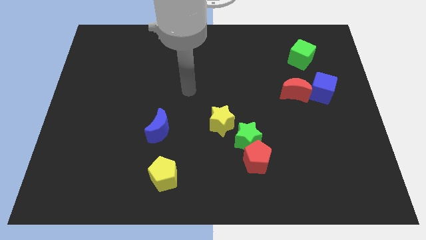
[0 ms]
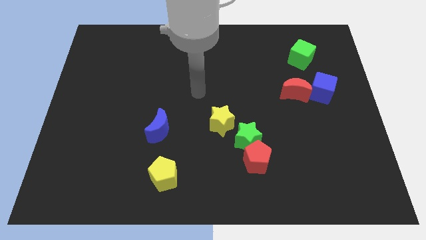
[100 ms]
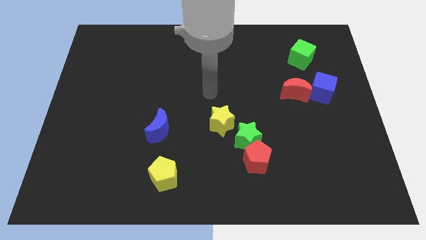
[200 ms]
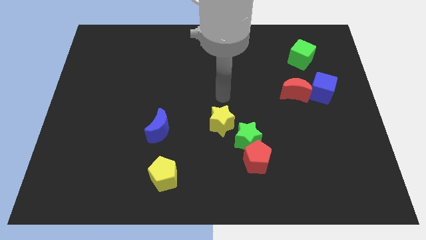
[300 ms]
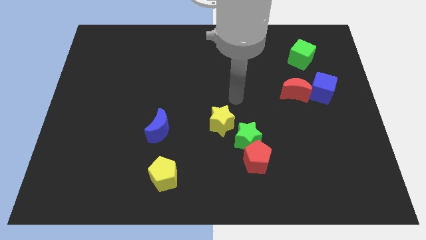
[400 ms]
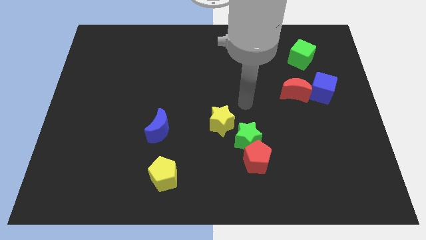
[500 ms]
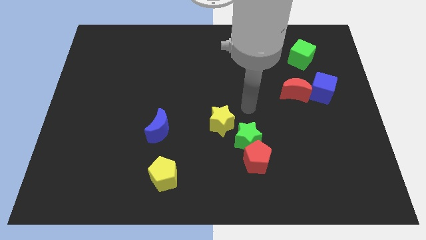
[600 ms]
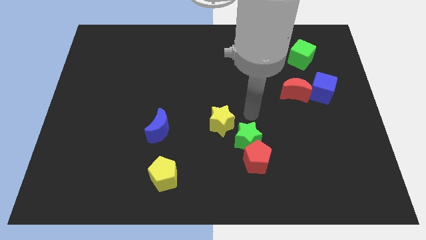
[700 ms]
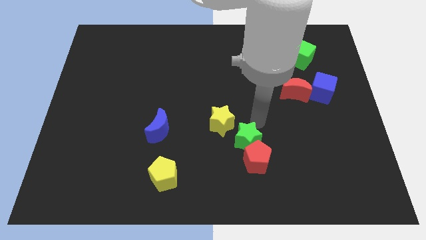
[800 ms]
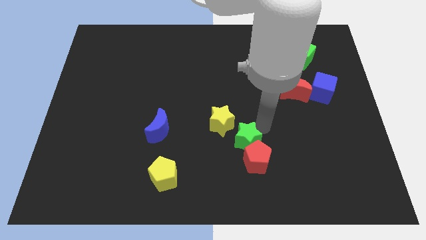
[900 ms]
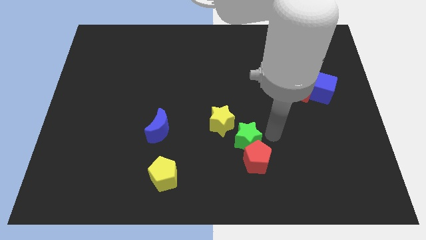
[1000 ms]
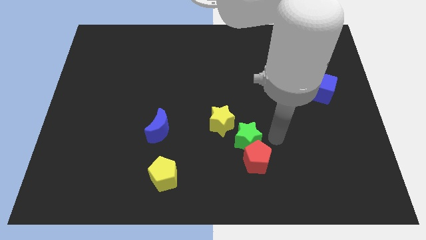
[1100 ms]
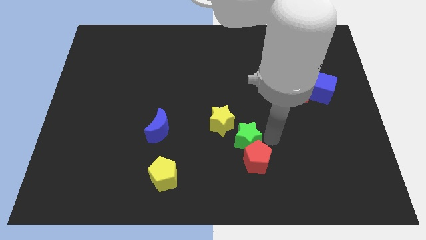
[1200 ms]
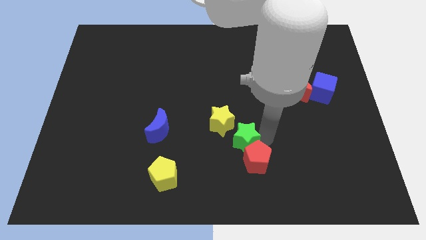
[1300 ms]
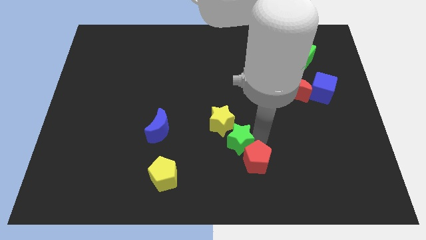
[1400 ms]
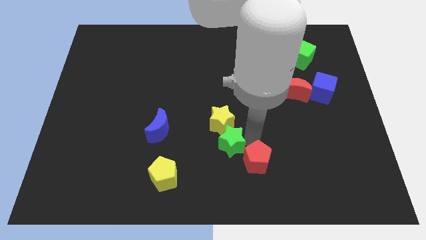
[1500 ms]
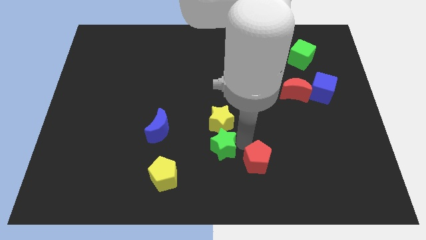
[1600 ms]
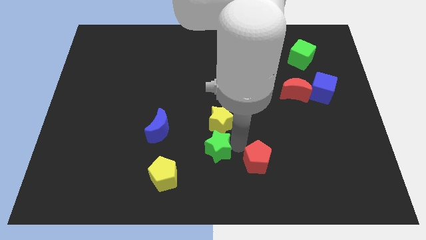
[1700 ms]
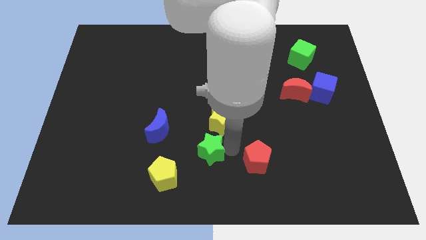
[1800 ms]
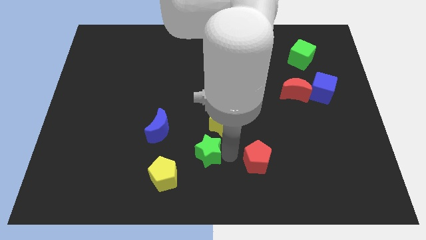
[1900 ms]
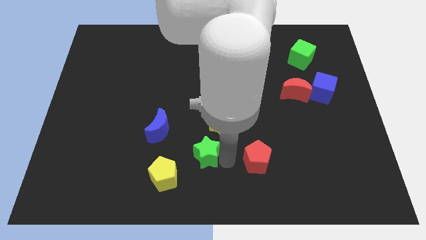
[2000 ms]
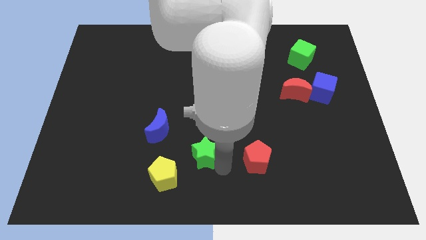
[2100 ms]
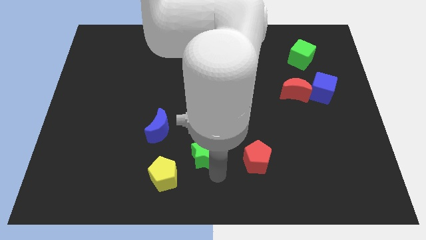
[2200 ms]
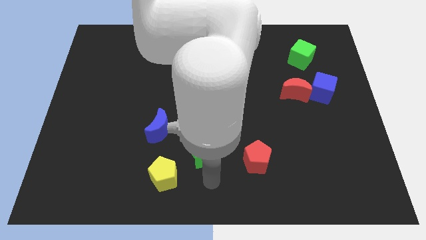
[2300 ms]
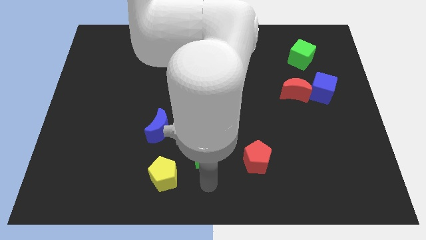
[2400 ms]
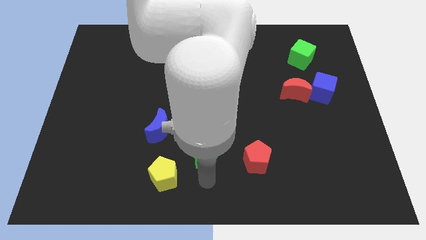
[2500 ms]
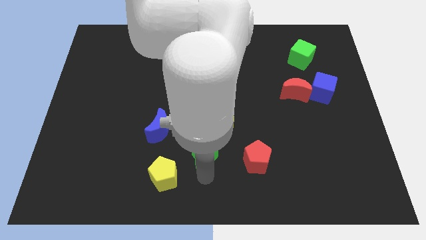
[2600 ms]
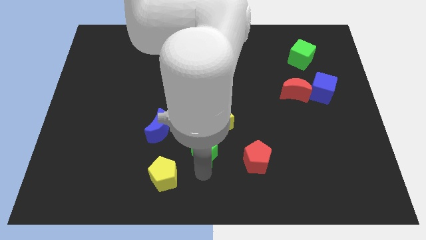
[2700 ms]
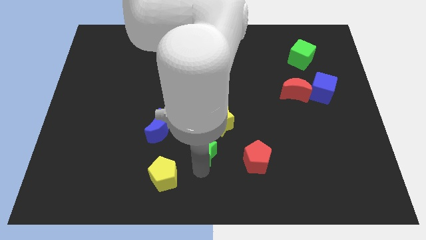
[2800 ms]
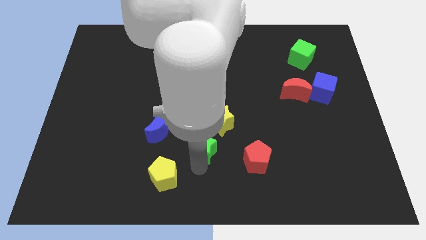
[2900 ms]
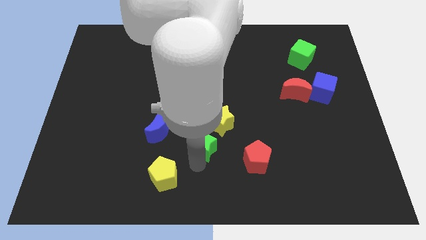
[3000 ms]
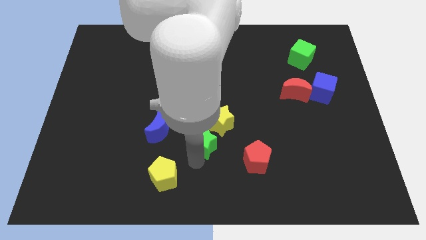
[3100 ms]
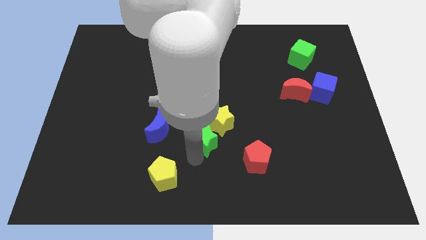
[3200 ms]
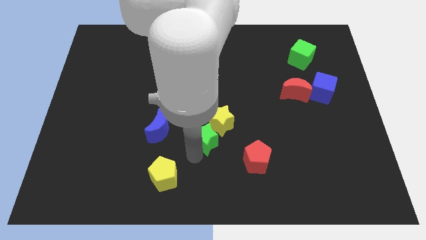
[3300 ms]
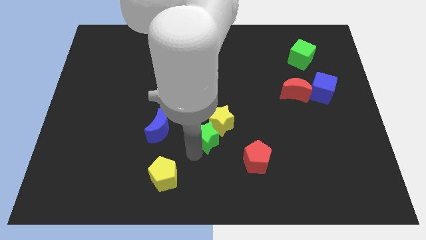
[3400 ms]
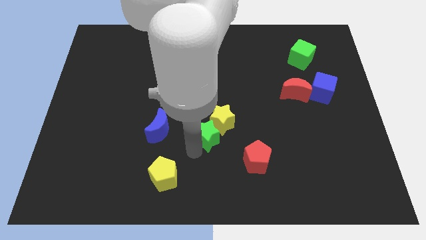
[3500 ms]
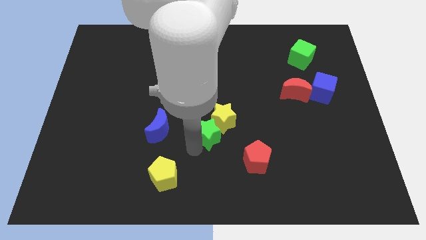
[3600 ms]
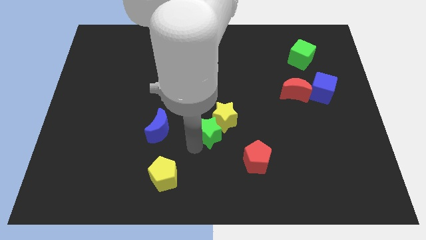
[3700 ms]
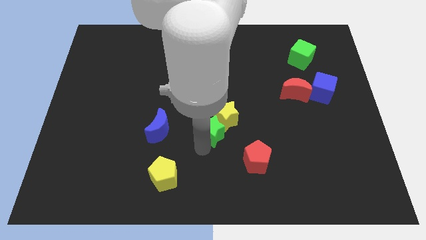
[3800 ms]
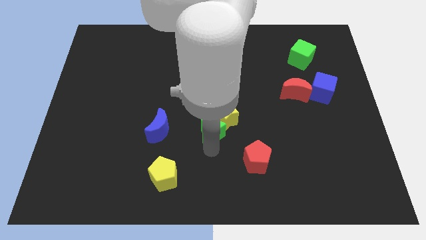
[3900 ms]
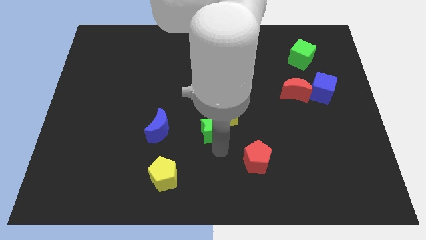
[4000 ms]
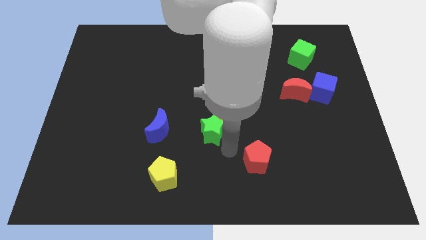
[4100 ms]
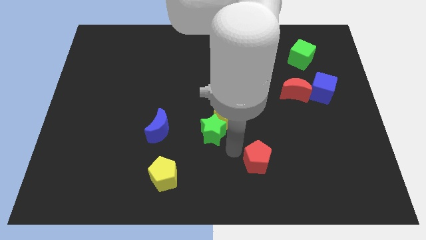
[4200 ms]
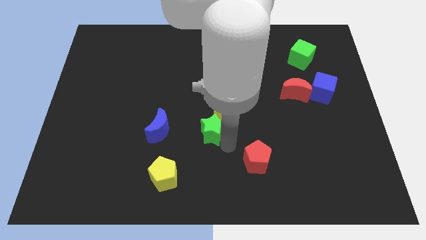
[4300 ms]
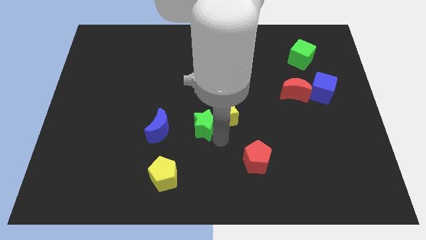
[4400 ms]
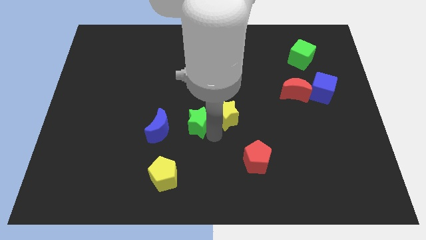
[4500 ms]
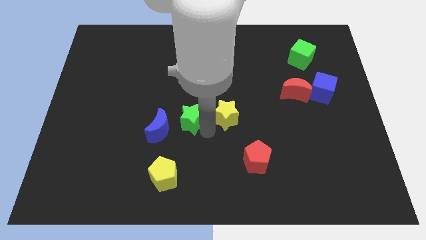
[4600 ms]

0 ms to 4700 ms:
push the green star to the top right of the blue moon

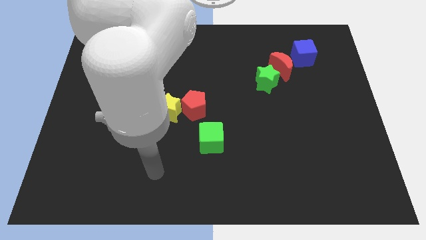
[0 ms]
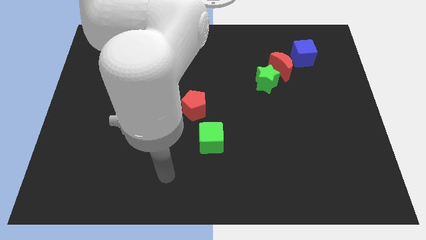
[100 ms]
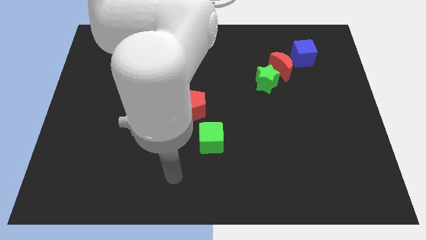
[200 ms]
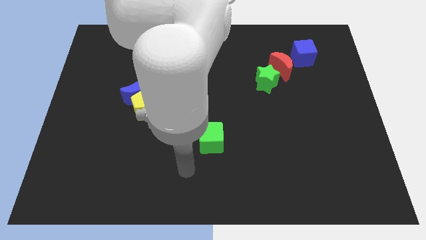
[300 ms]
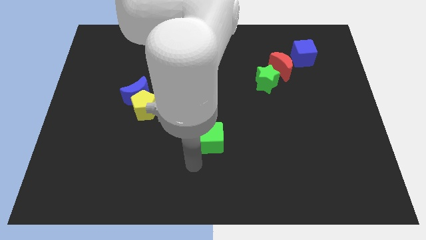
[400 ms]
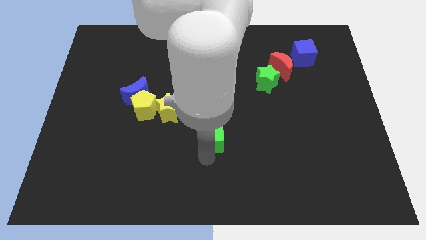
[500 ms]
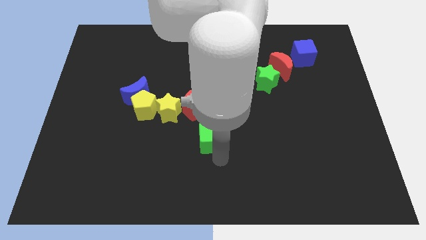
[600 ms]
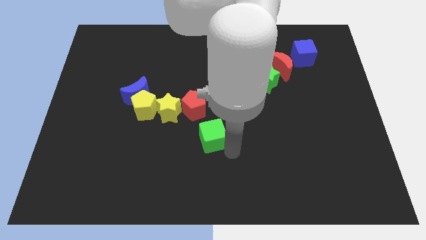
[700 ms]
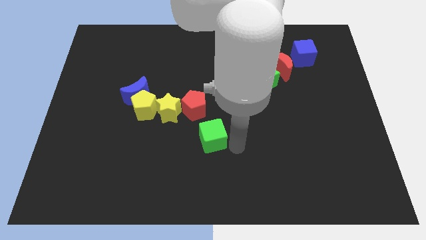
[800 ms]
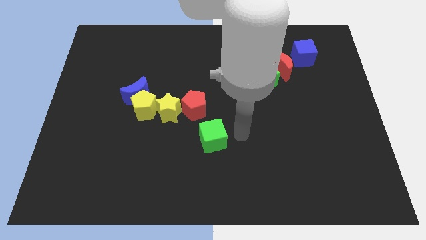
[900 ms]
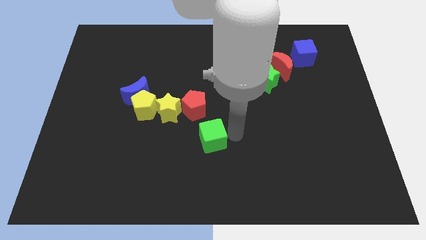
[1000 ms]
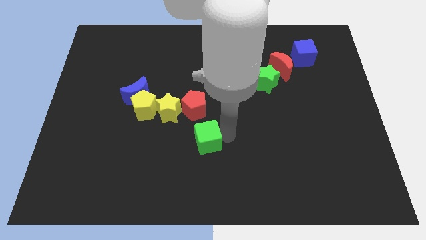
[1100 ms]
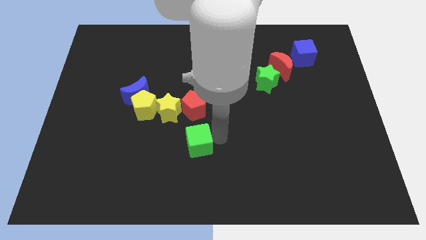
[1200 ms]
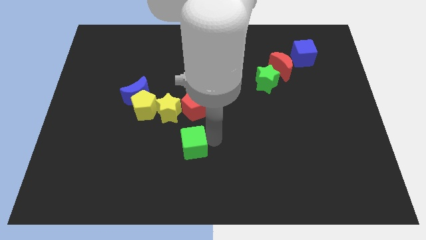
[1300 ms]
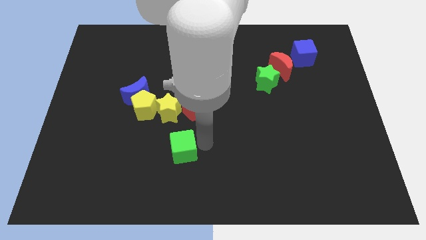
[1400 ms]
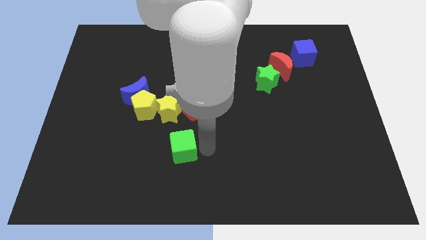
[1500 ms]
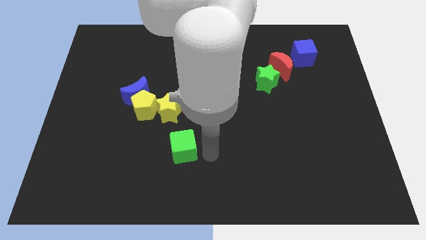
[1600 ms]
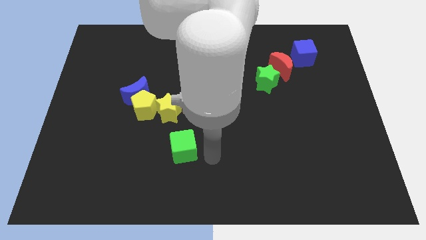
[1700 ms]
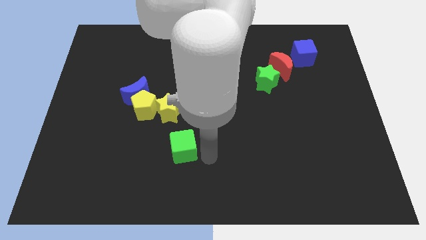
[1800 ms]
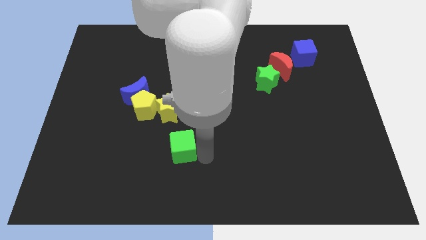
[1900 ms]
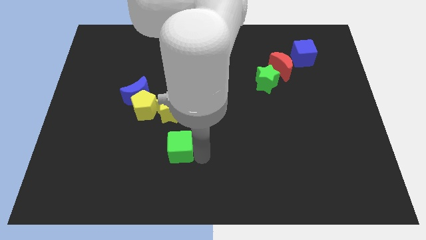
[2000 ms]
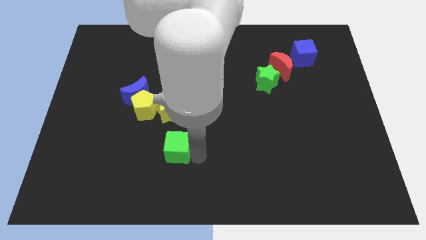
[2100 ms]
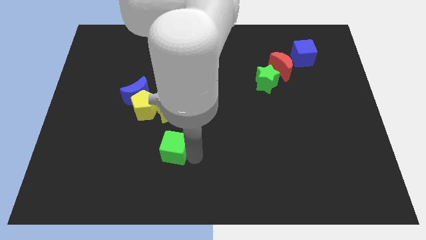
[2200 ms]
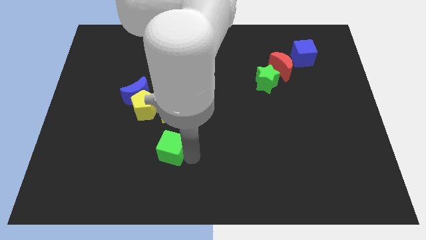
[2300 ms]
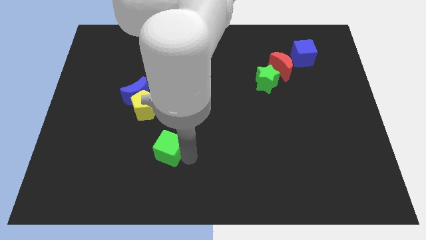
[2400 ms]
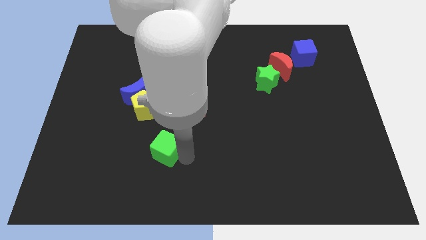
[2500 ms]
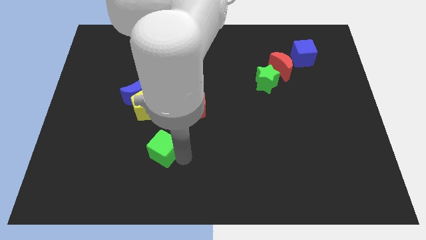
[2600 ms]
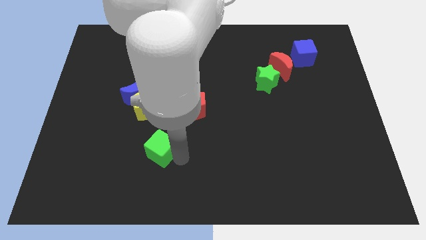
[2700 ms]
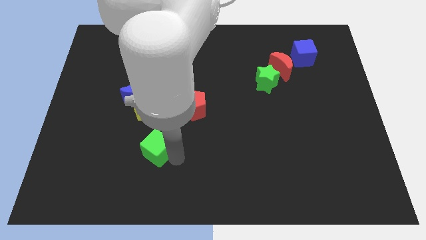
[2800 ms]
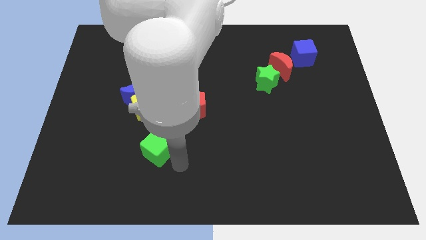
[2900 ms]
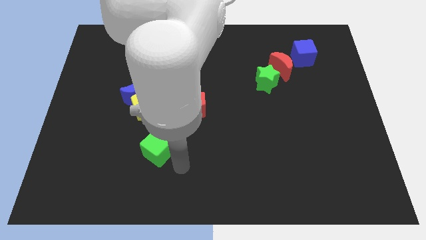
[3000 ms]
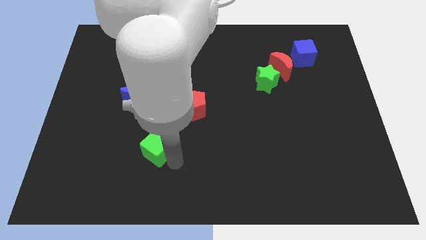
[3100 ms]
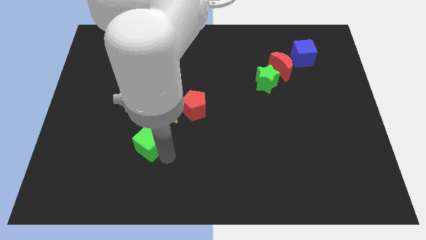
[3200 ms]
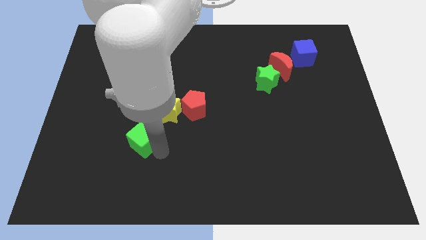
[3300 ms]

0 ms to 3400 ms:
push the green cube below the blue moon
